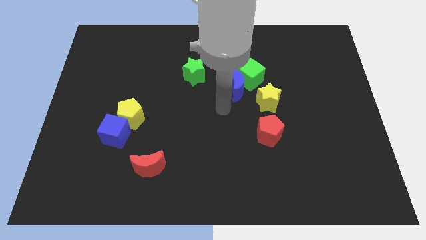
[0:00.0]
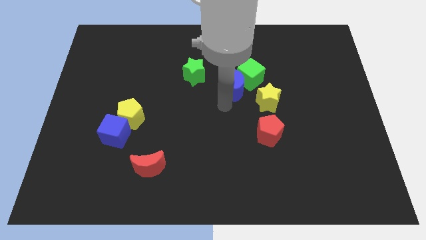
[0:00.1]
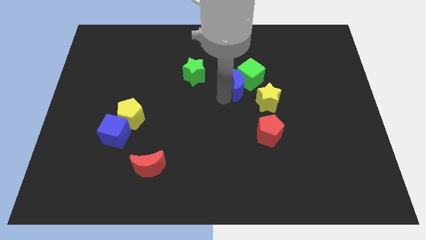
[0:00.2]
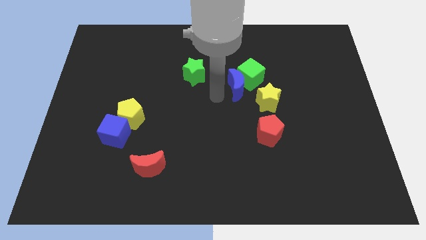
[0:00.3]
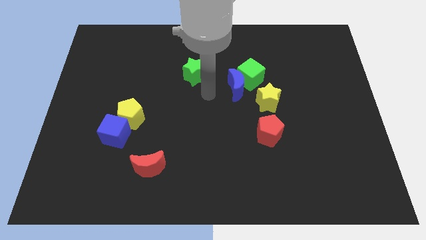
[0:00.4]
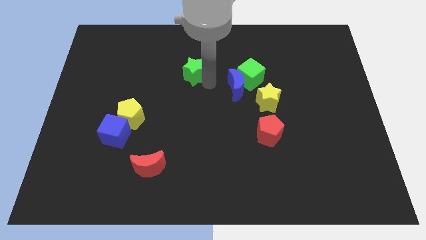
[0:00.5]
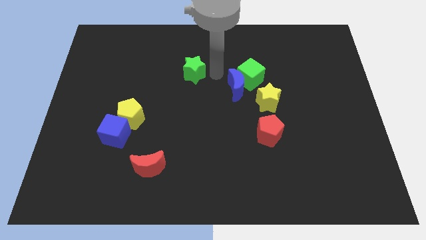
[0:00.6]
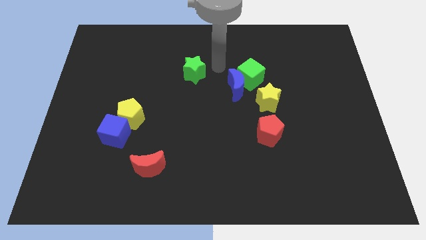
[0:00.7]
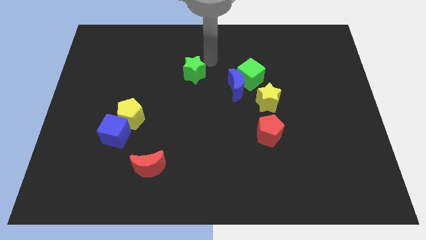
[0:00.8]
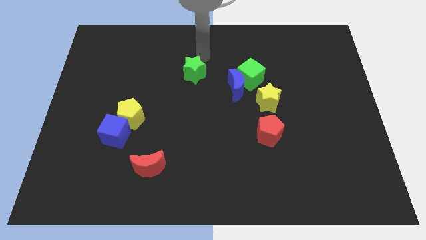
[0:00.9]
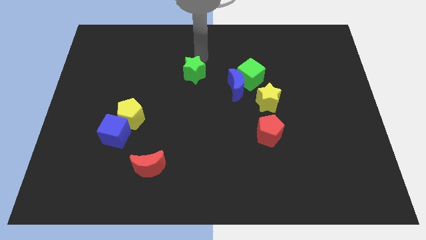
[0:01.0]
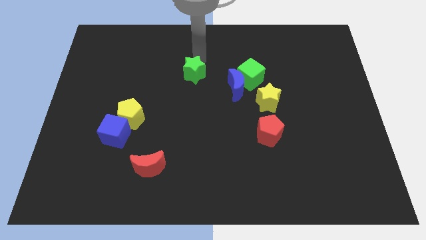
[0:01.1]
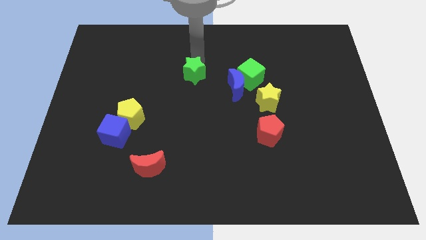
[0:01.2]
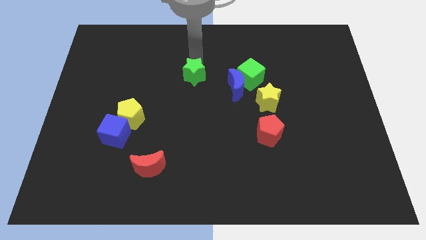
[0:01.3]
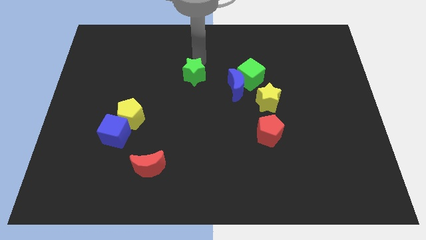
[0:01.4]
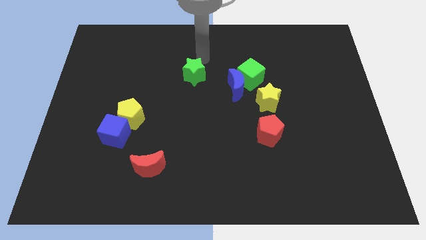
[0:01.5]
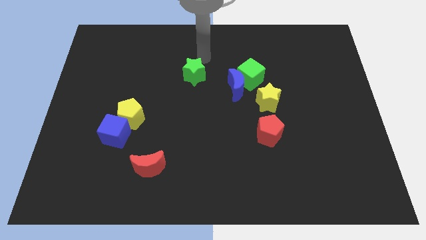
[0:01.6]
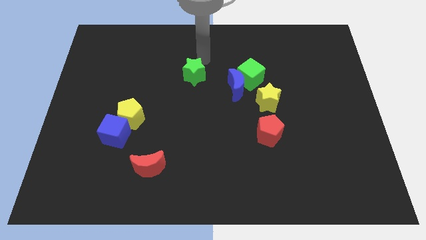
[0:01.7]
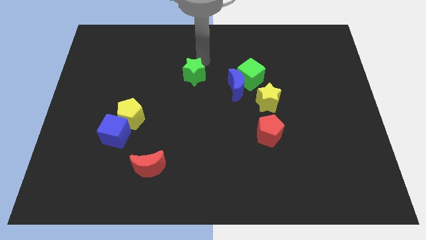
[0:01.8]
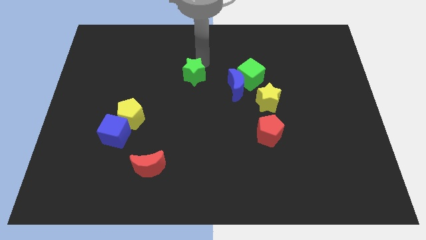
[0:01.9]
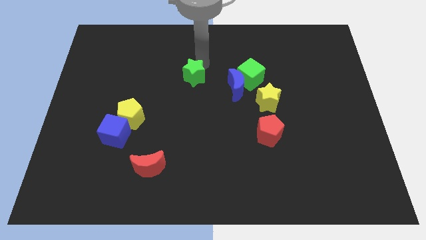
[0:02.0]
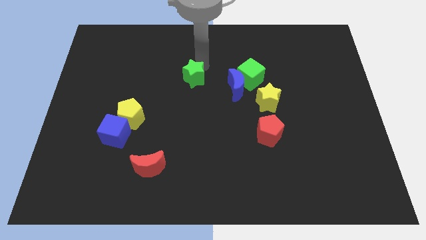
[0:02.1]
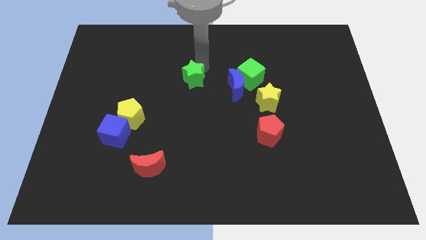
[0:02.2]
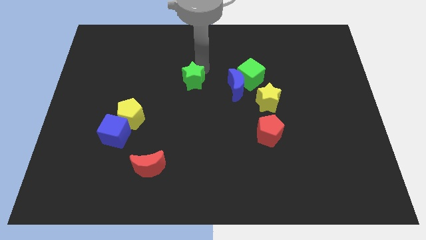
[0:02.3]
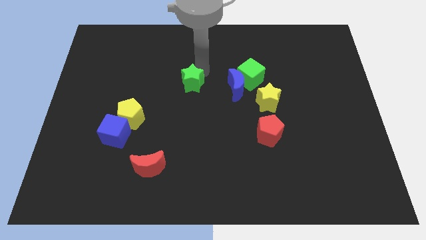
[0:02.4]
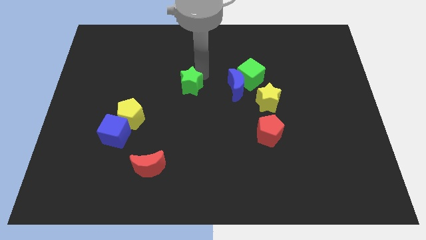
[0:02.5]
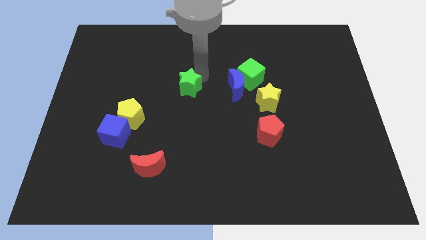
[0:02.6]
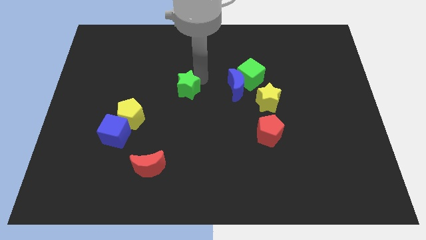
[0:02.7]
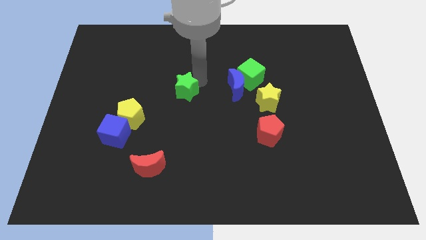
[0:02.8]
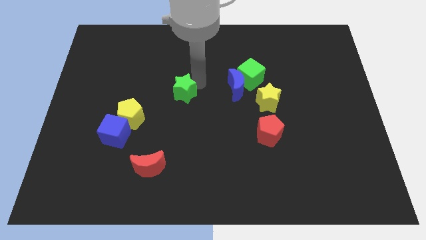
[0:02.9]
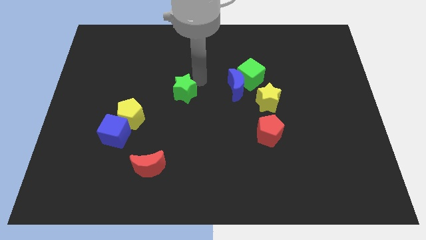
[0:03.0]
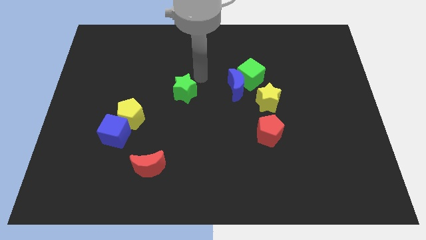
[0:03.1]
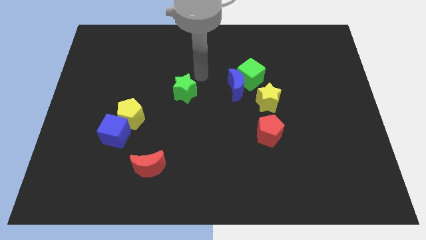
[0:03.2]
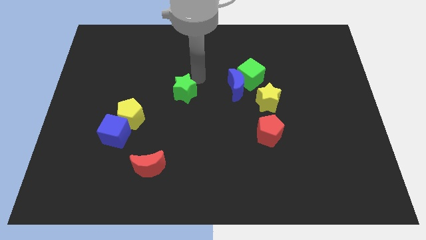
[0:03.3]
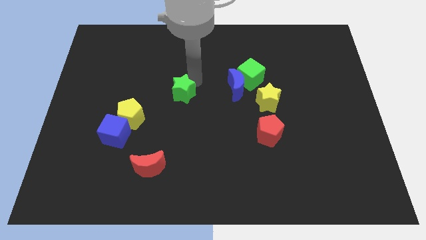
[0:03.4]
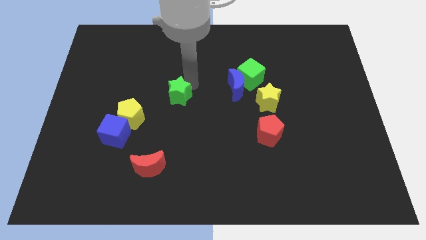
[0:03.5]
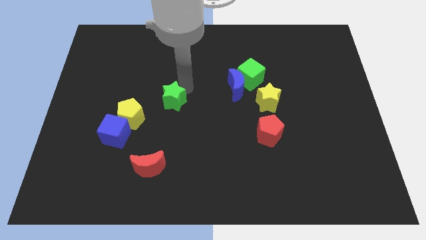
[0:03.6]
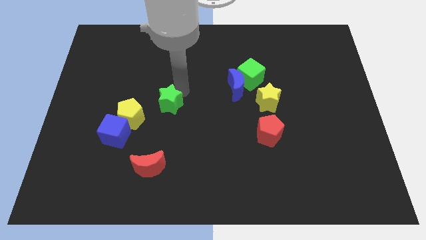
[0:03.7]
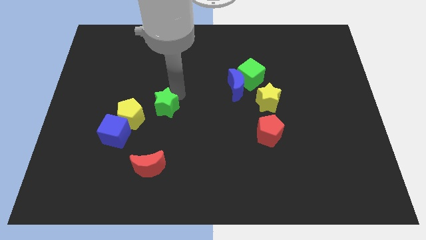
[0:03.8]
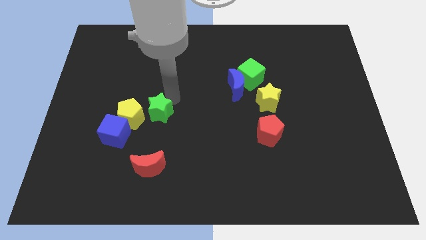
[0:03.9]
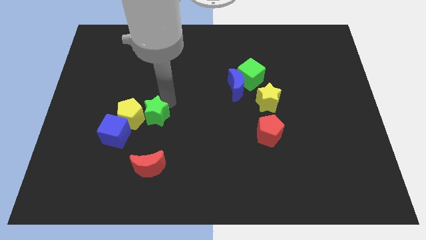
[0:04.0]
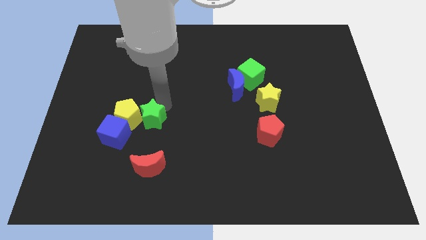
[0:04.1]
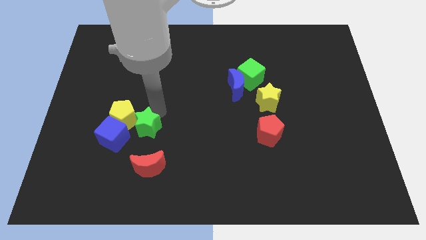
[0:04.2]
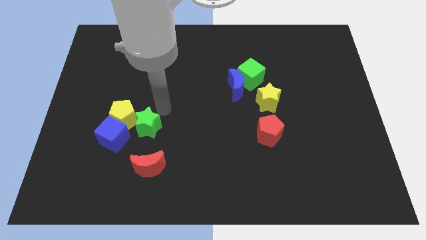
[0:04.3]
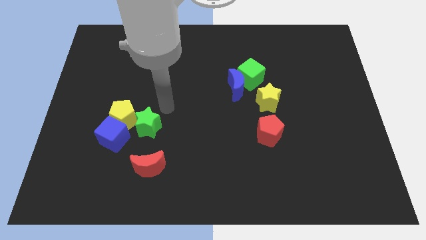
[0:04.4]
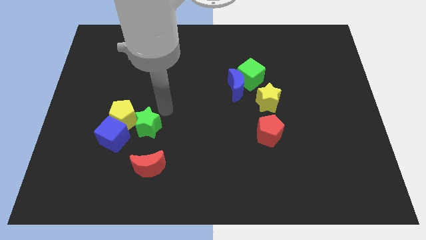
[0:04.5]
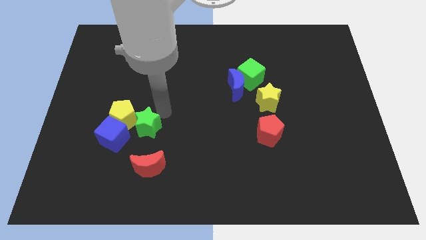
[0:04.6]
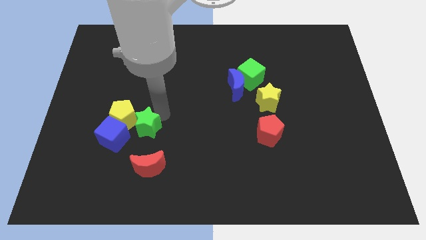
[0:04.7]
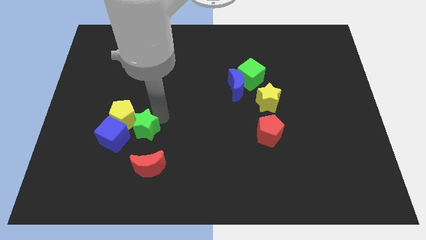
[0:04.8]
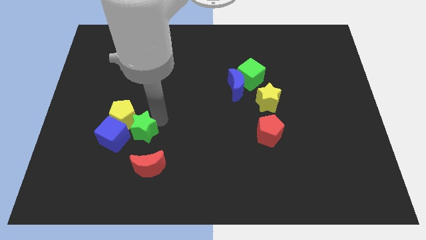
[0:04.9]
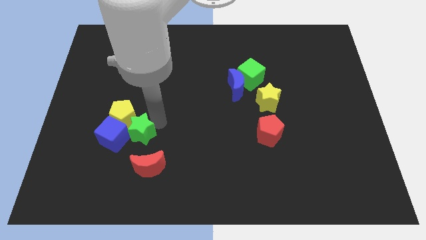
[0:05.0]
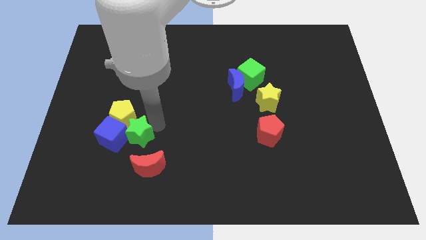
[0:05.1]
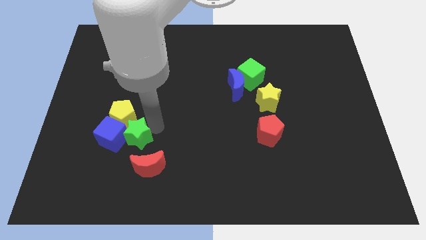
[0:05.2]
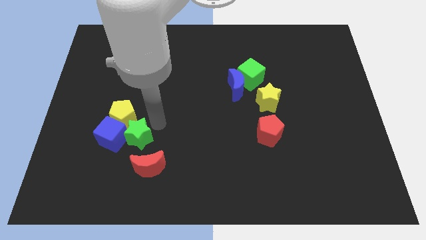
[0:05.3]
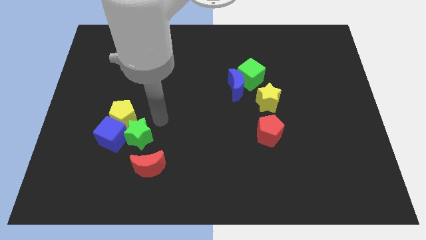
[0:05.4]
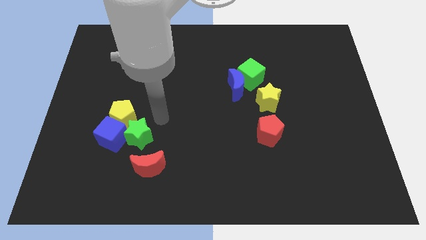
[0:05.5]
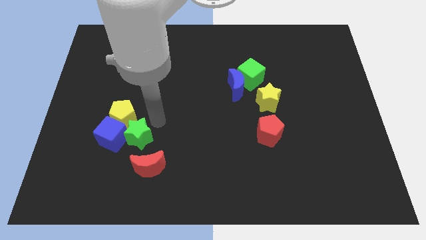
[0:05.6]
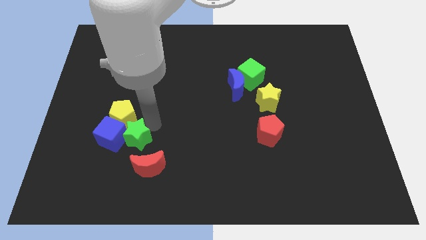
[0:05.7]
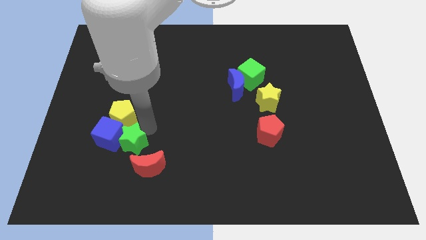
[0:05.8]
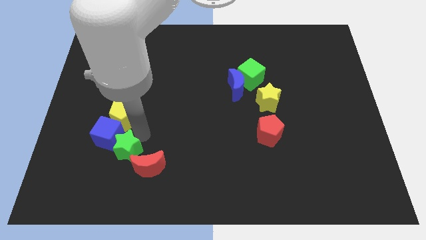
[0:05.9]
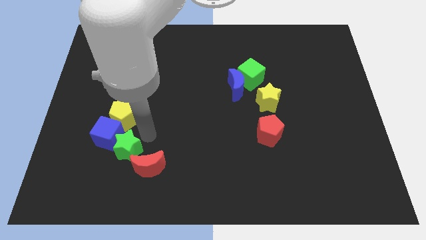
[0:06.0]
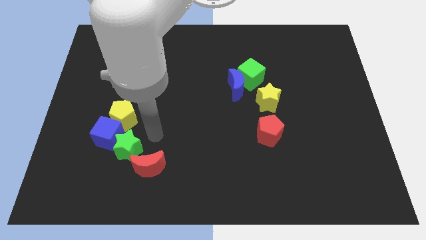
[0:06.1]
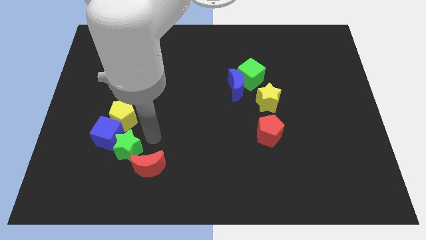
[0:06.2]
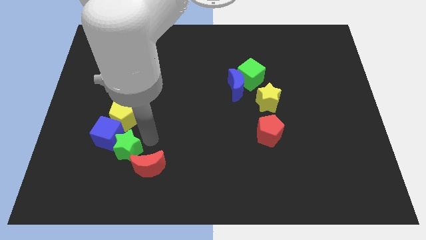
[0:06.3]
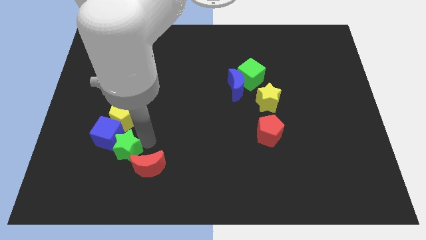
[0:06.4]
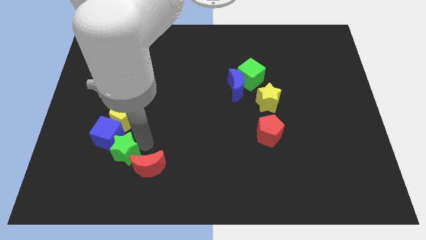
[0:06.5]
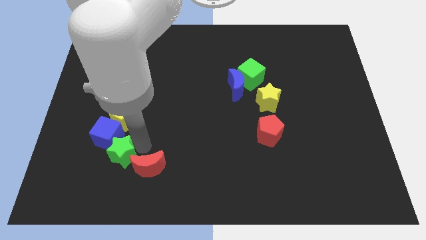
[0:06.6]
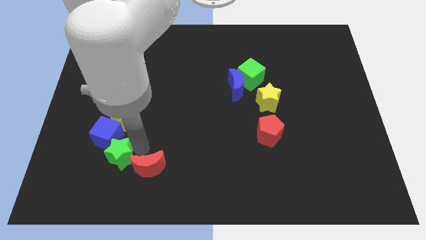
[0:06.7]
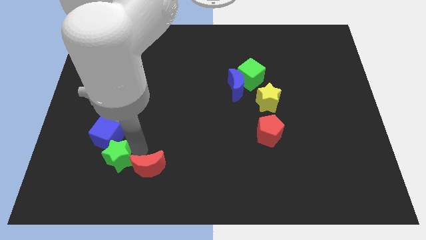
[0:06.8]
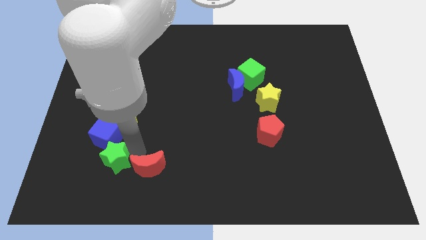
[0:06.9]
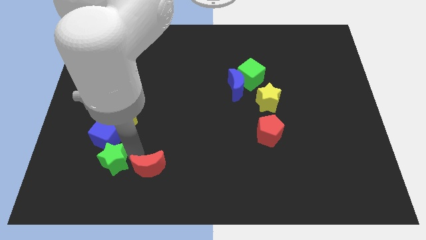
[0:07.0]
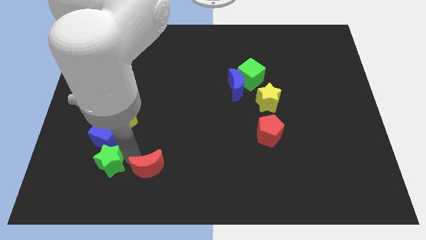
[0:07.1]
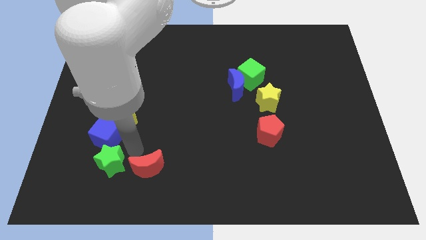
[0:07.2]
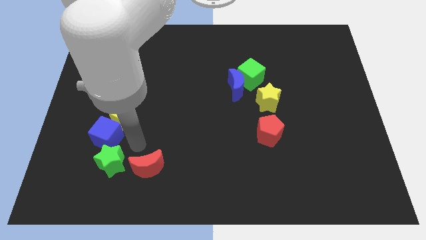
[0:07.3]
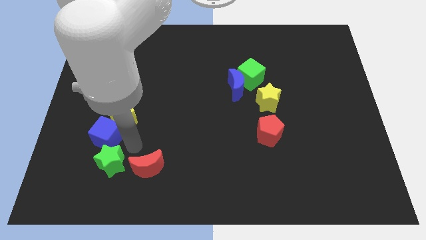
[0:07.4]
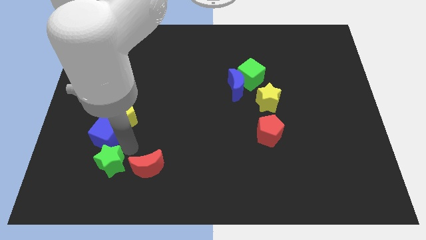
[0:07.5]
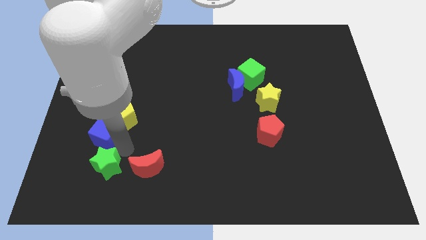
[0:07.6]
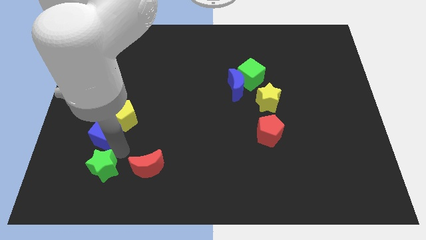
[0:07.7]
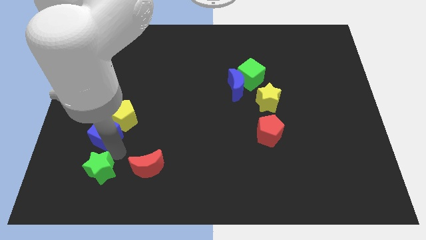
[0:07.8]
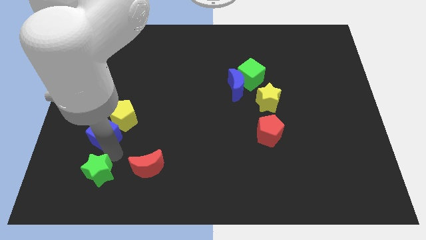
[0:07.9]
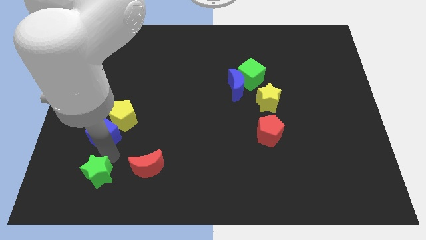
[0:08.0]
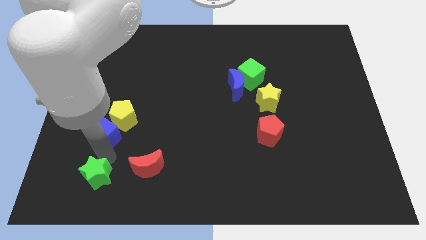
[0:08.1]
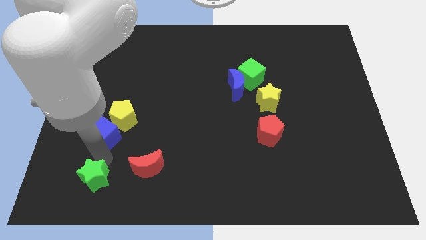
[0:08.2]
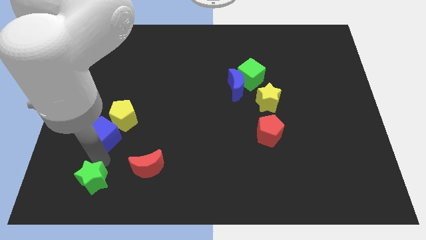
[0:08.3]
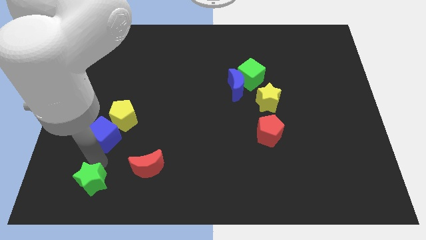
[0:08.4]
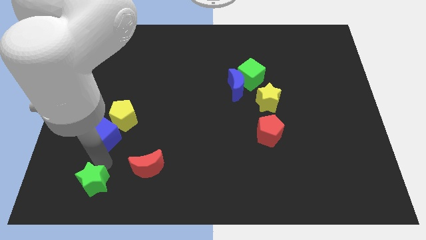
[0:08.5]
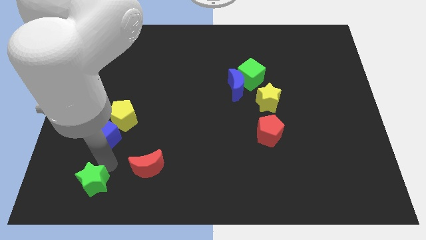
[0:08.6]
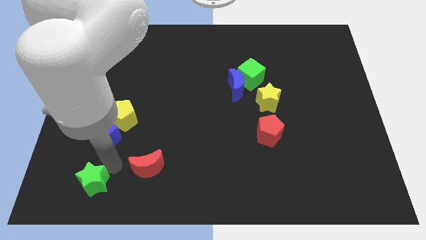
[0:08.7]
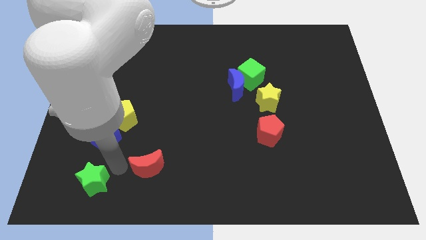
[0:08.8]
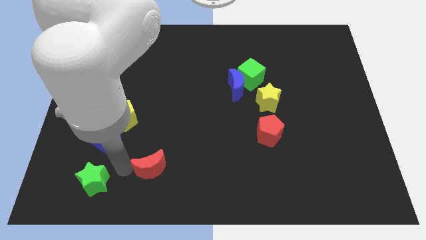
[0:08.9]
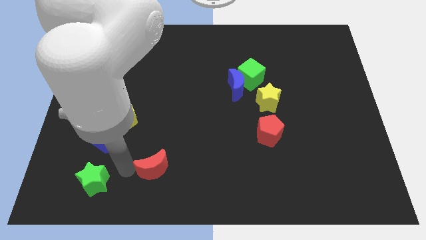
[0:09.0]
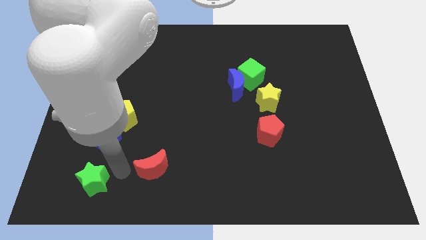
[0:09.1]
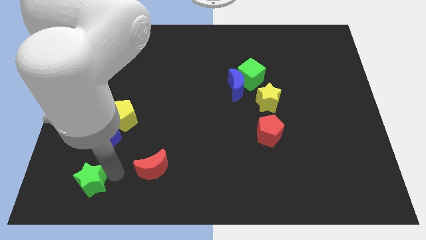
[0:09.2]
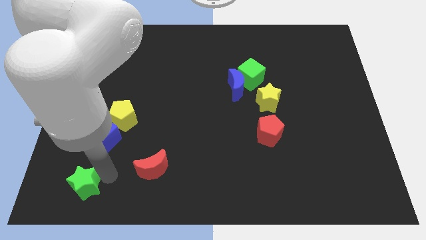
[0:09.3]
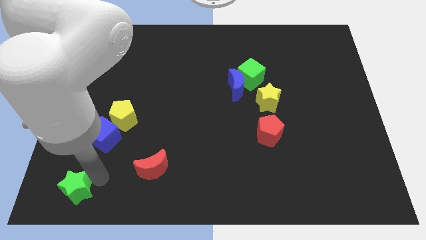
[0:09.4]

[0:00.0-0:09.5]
put the green star to the bottom left
